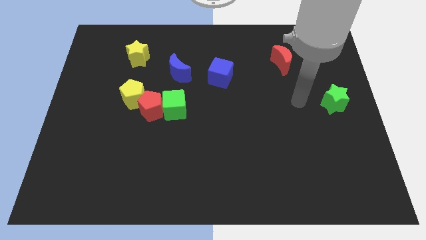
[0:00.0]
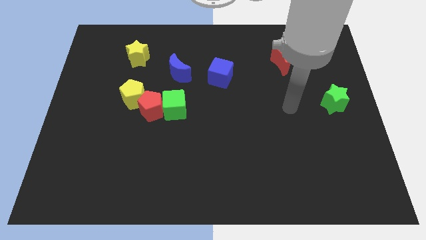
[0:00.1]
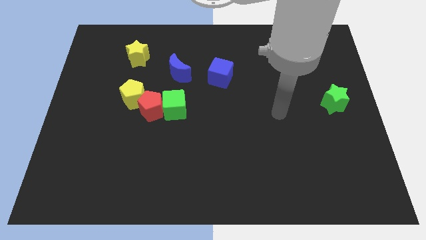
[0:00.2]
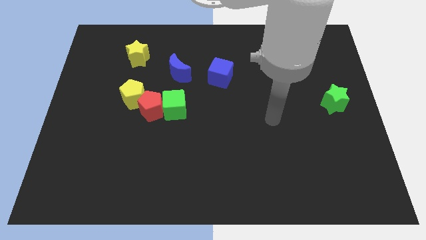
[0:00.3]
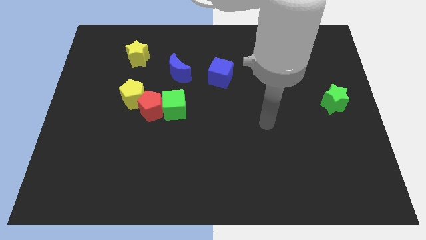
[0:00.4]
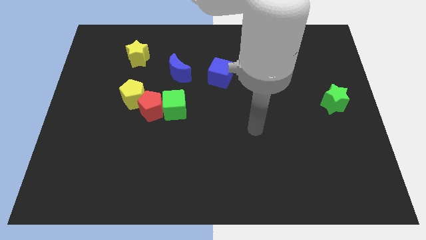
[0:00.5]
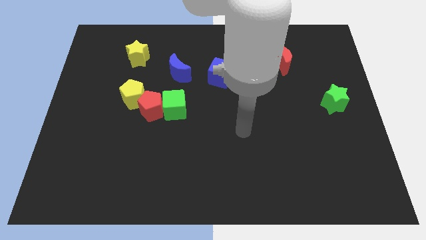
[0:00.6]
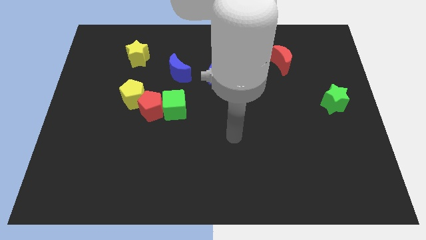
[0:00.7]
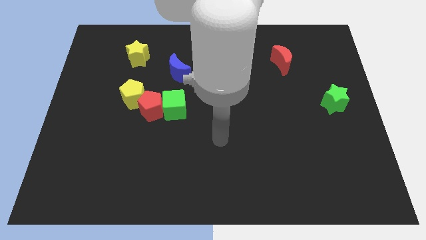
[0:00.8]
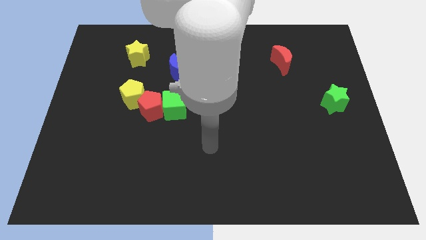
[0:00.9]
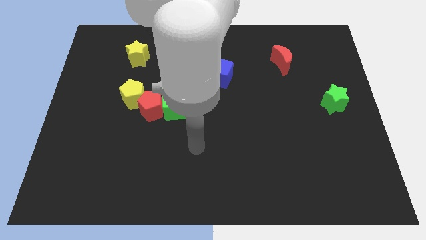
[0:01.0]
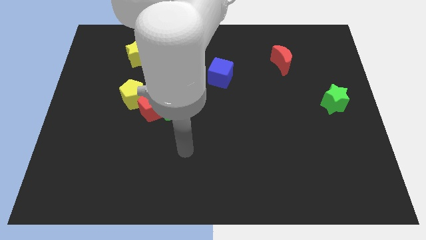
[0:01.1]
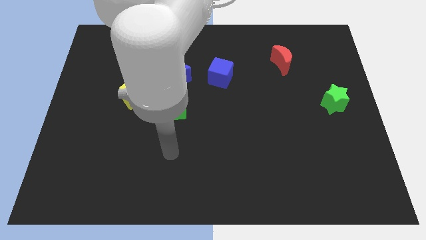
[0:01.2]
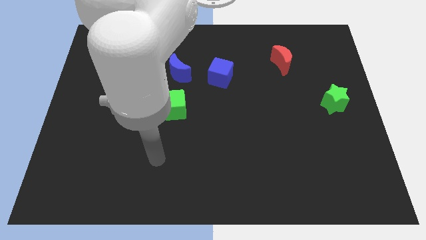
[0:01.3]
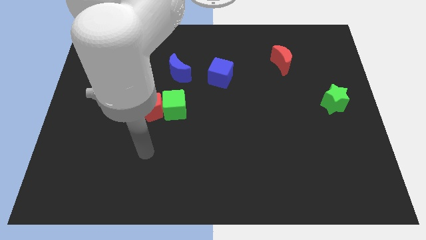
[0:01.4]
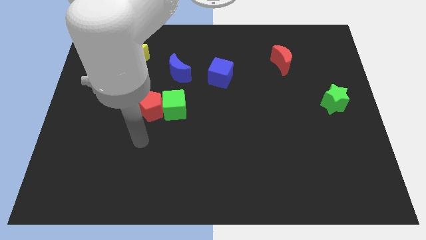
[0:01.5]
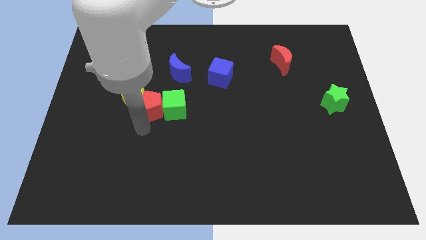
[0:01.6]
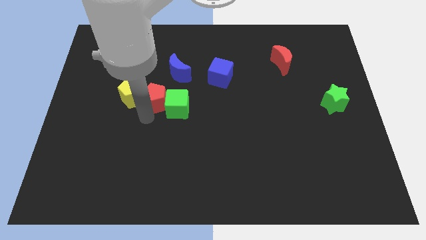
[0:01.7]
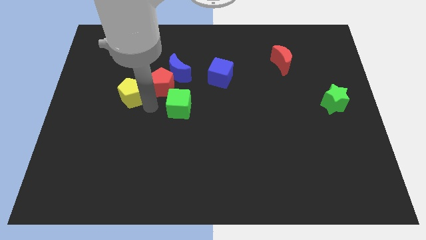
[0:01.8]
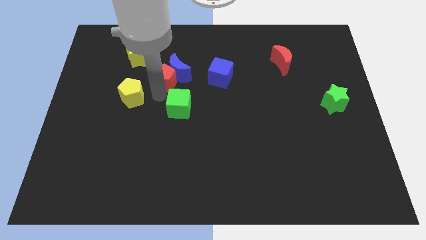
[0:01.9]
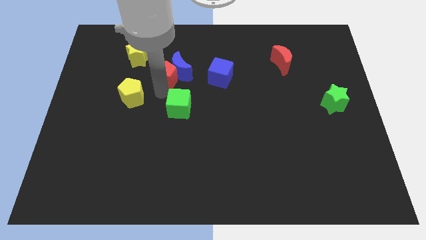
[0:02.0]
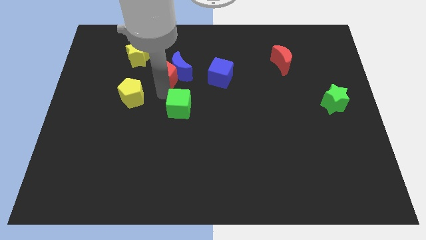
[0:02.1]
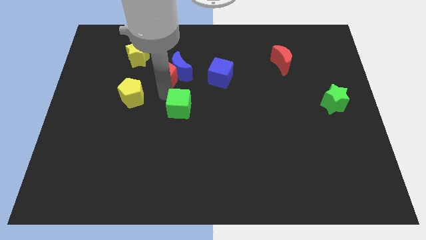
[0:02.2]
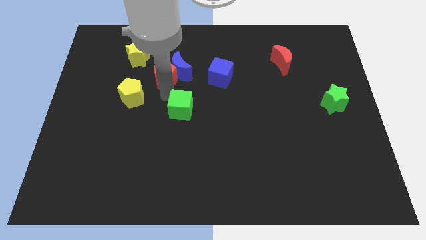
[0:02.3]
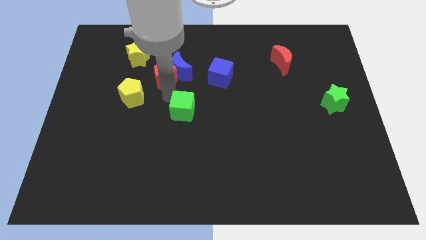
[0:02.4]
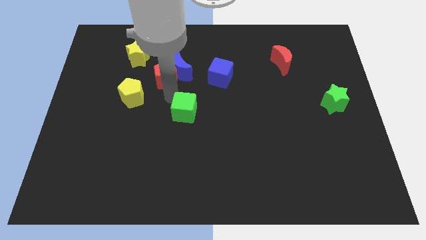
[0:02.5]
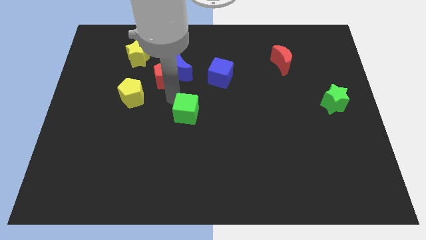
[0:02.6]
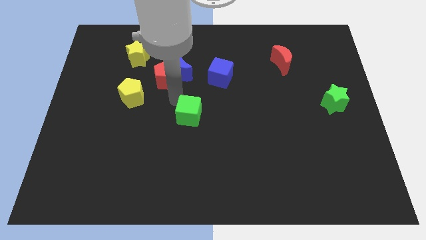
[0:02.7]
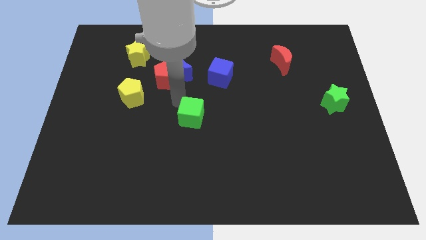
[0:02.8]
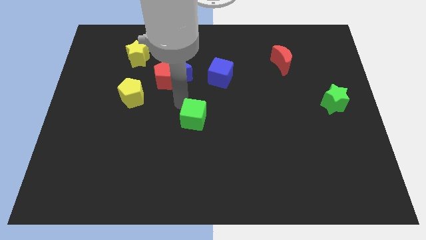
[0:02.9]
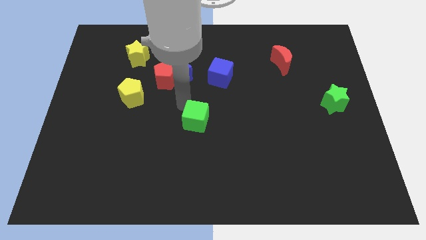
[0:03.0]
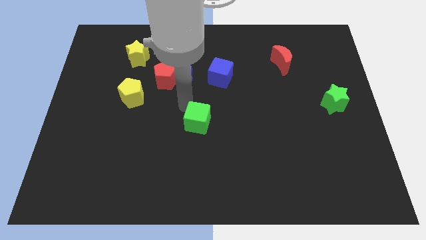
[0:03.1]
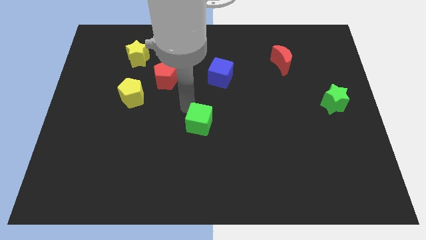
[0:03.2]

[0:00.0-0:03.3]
move the green cube downwards and right a little bit

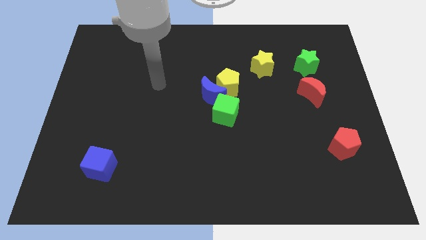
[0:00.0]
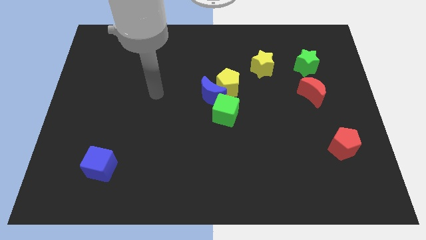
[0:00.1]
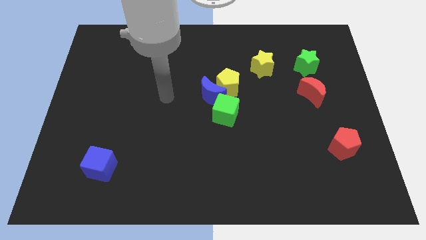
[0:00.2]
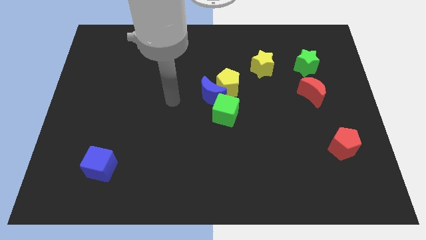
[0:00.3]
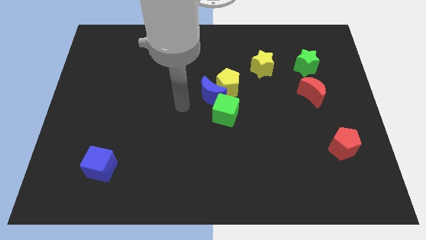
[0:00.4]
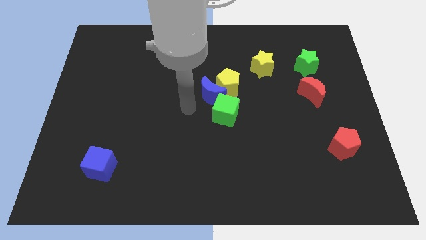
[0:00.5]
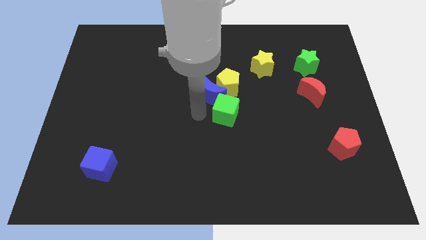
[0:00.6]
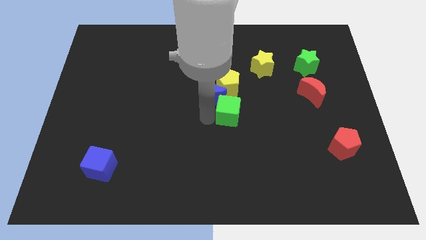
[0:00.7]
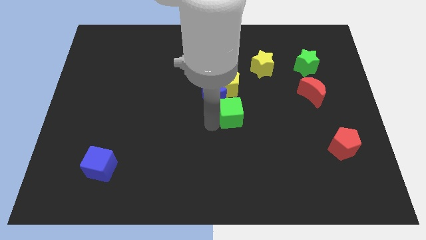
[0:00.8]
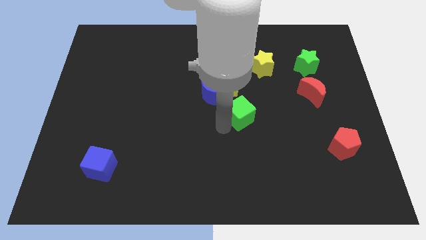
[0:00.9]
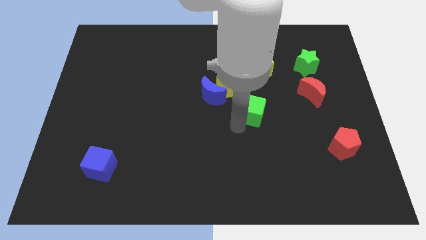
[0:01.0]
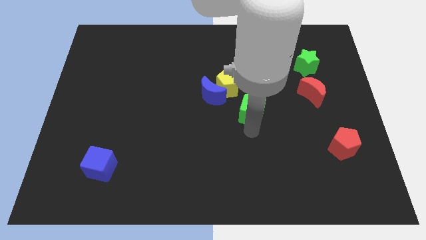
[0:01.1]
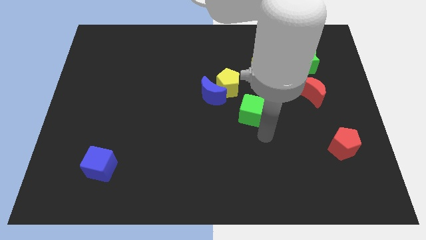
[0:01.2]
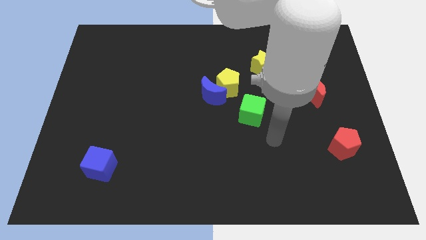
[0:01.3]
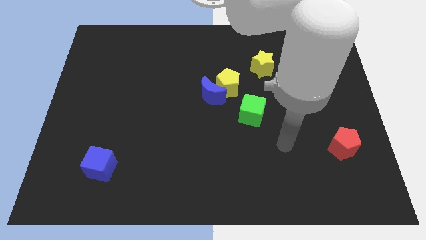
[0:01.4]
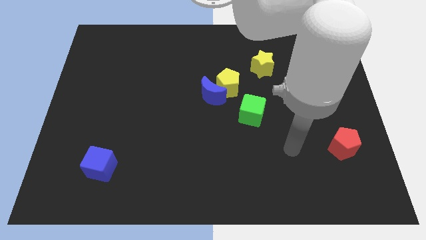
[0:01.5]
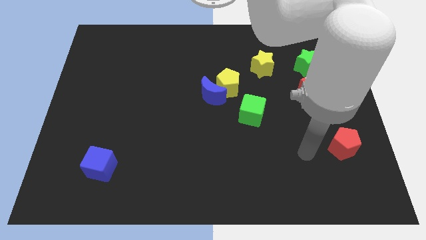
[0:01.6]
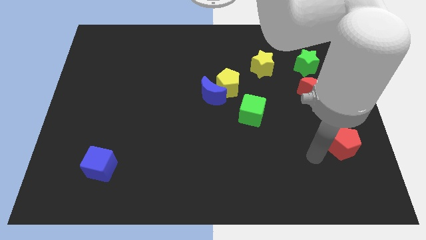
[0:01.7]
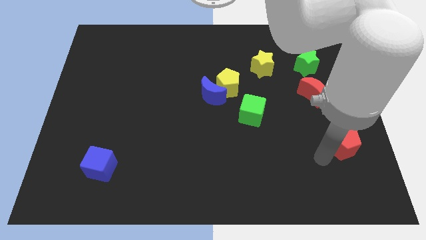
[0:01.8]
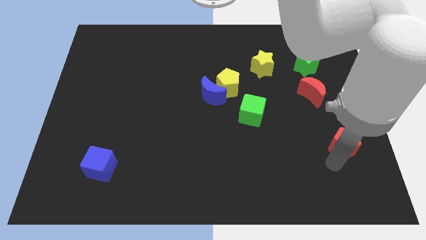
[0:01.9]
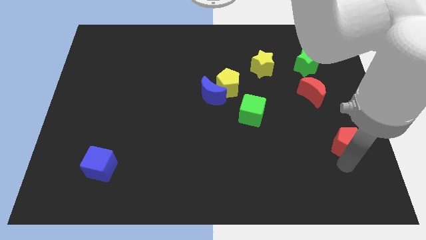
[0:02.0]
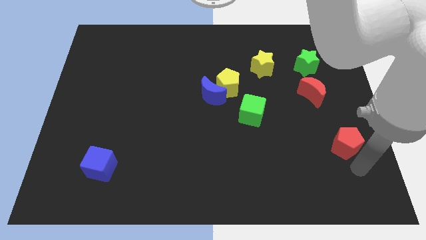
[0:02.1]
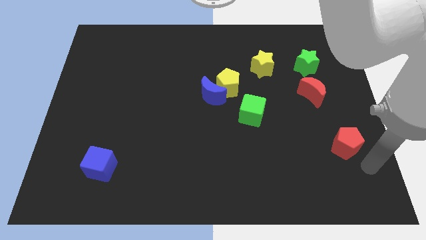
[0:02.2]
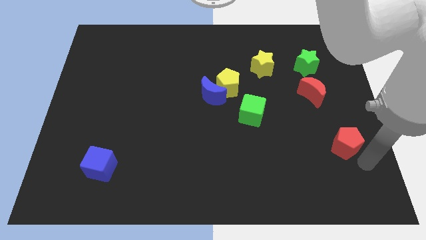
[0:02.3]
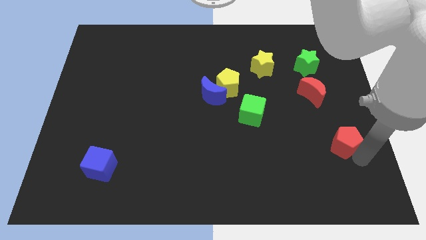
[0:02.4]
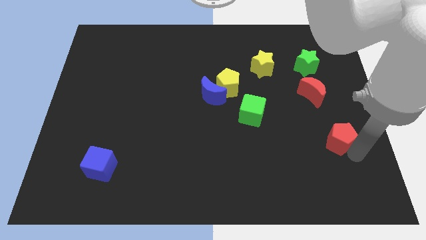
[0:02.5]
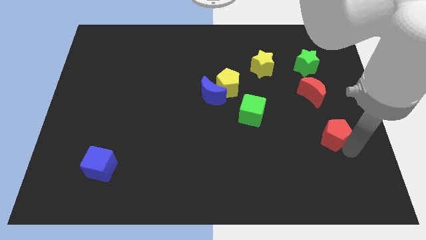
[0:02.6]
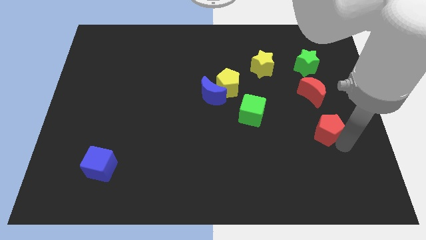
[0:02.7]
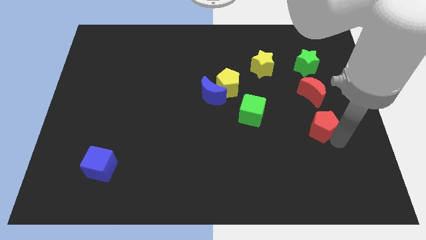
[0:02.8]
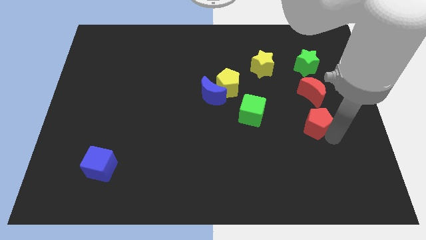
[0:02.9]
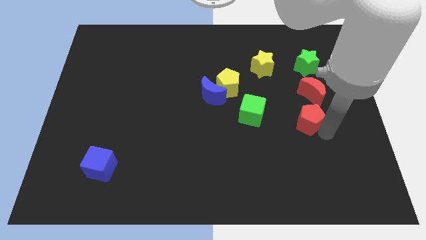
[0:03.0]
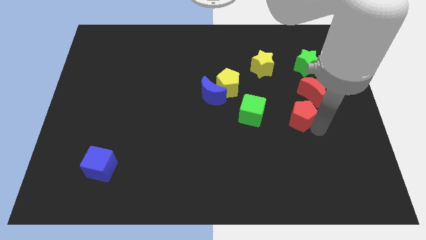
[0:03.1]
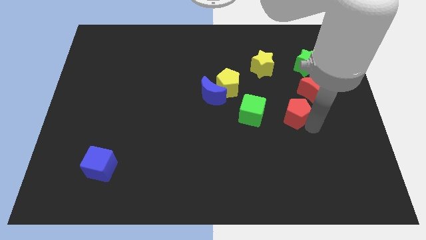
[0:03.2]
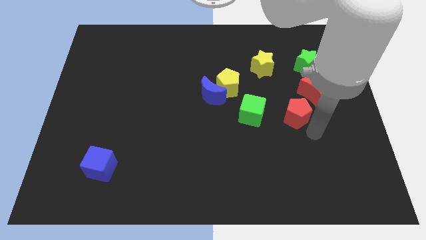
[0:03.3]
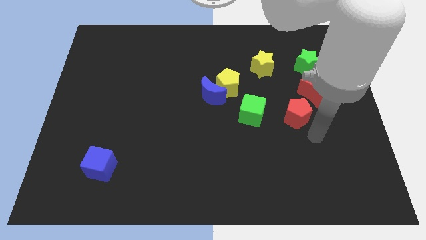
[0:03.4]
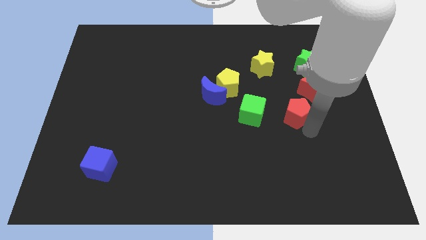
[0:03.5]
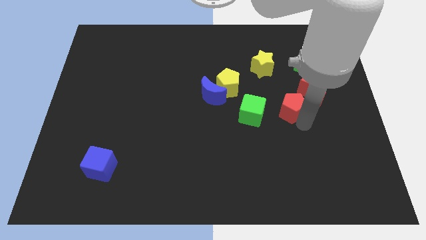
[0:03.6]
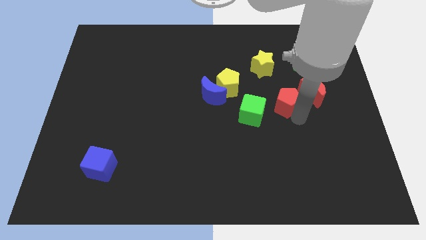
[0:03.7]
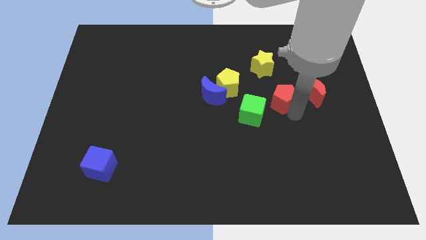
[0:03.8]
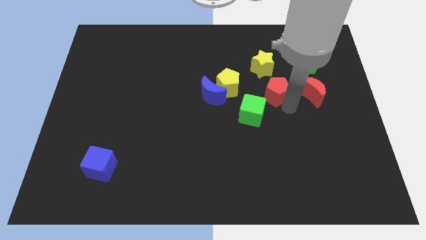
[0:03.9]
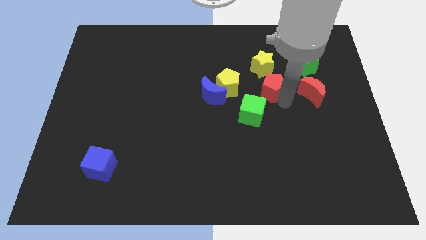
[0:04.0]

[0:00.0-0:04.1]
move the red pentagon upwards and left diagonally

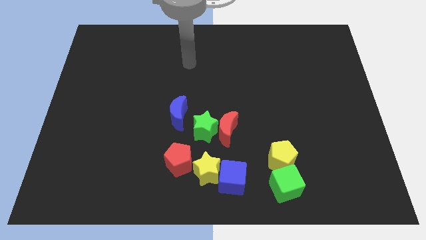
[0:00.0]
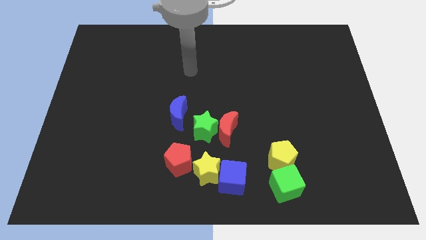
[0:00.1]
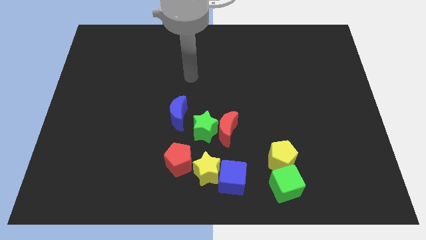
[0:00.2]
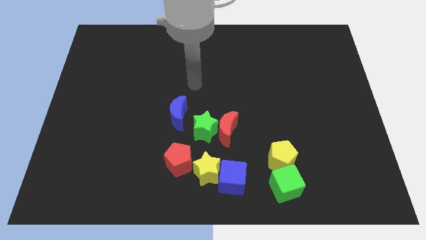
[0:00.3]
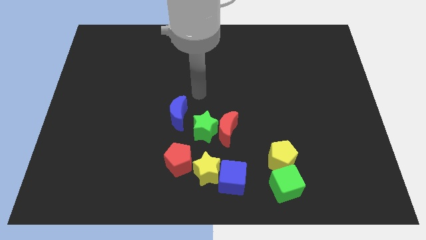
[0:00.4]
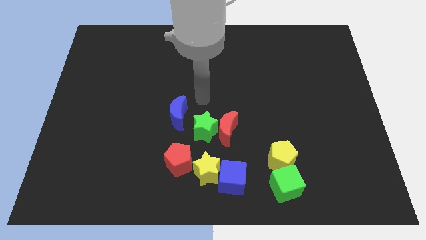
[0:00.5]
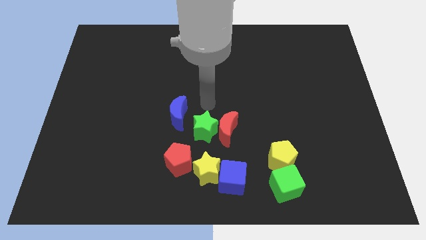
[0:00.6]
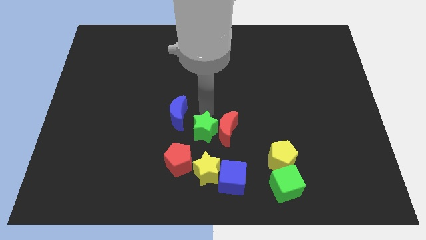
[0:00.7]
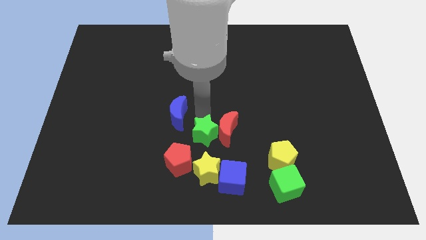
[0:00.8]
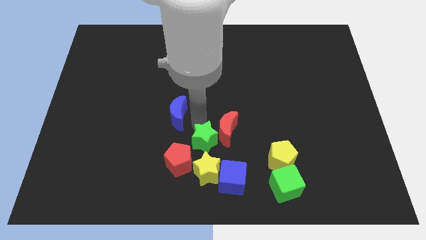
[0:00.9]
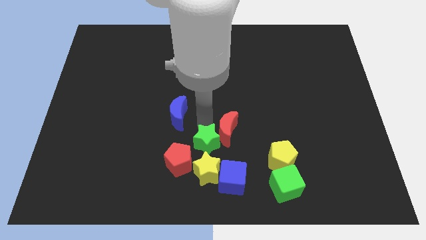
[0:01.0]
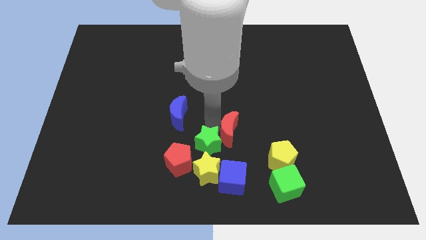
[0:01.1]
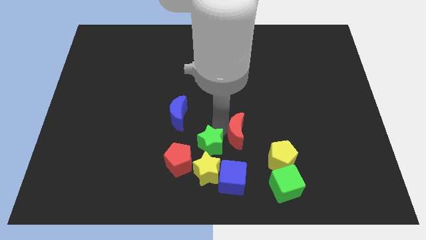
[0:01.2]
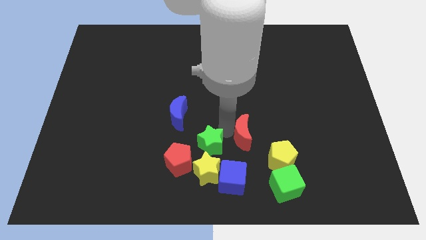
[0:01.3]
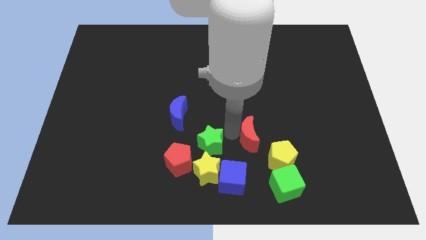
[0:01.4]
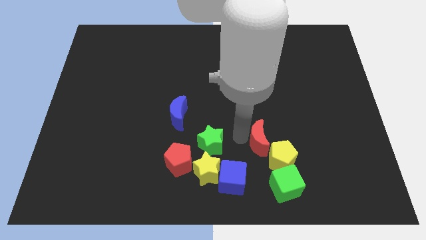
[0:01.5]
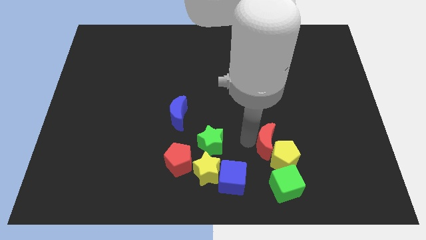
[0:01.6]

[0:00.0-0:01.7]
slide the red moon a bit right
